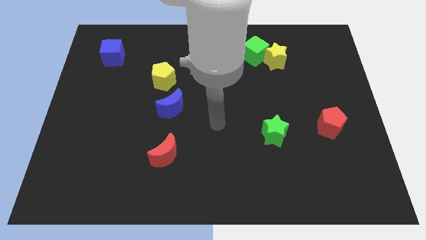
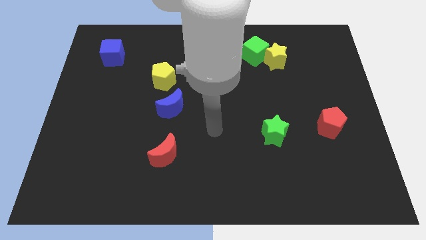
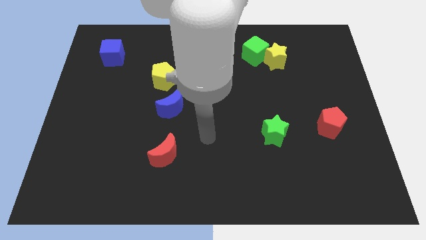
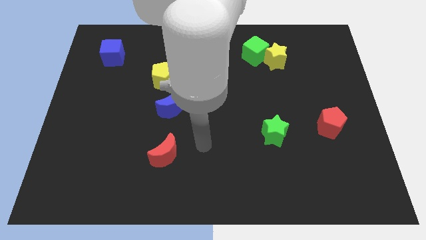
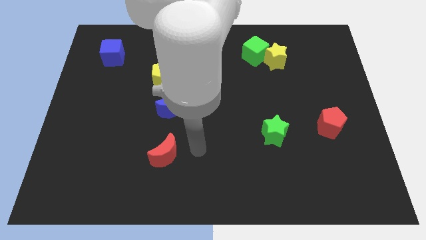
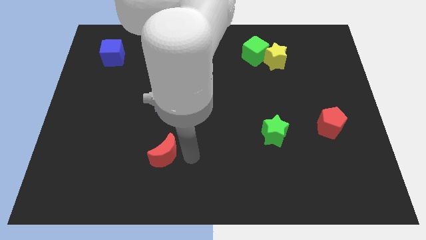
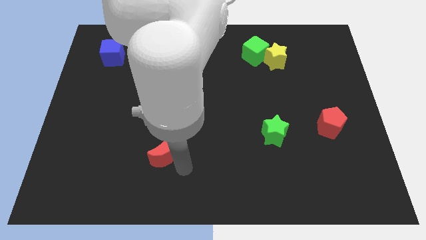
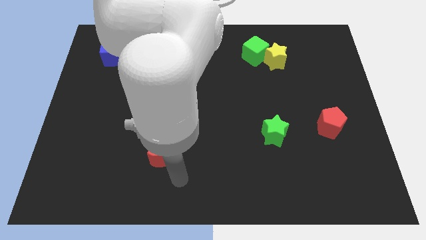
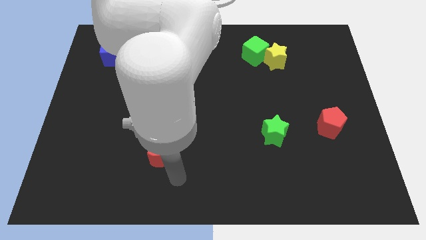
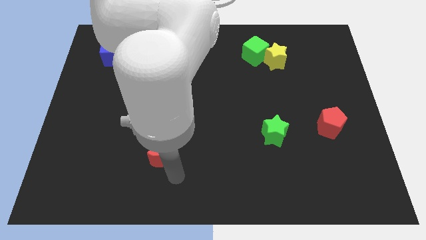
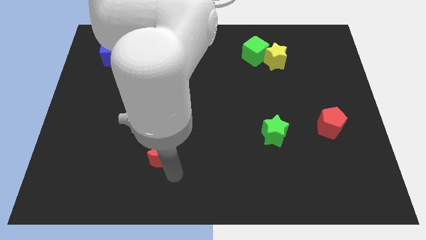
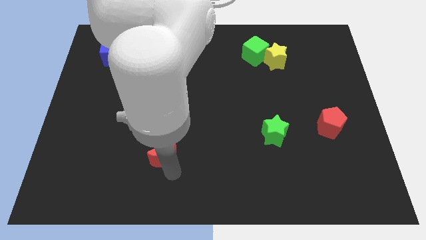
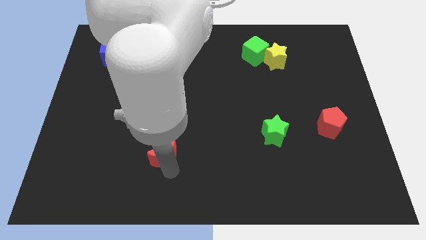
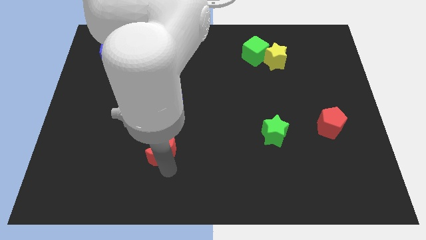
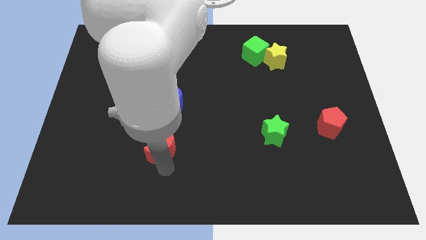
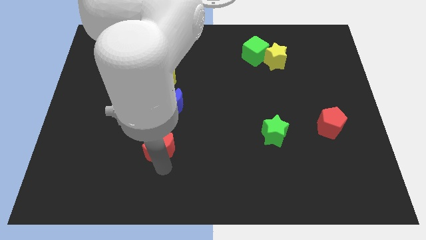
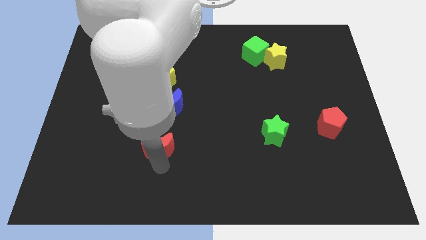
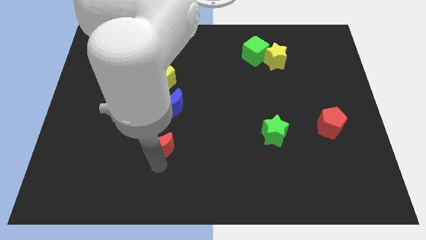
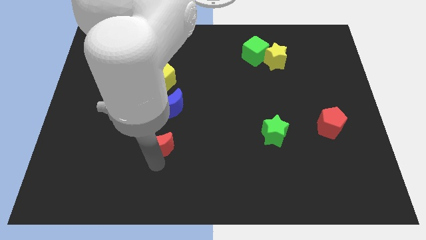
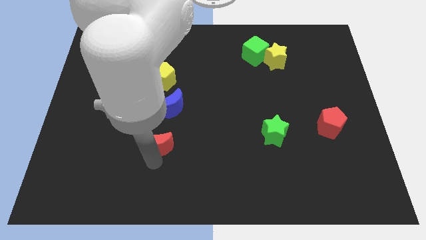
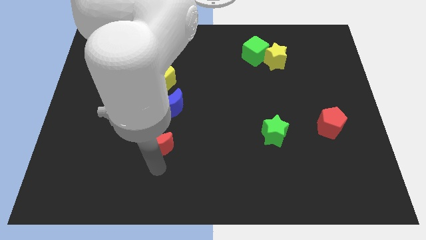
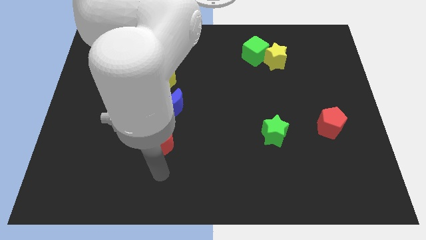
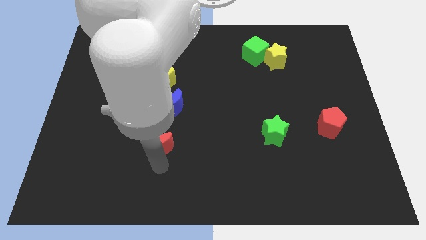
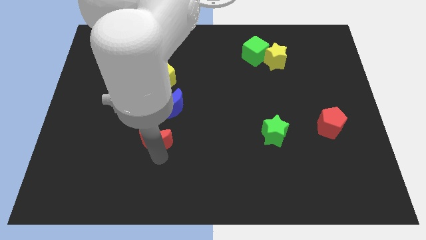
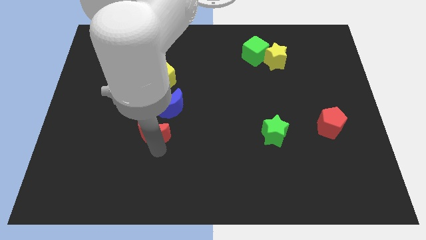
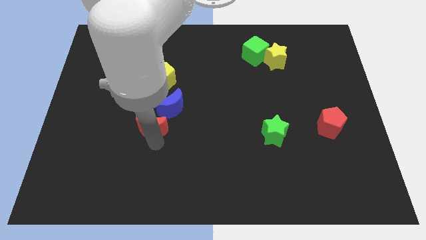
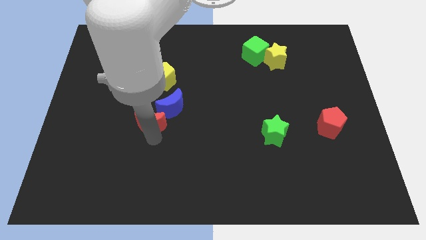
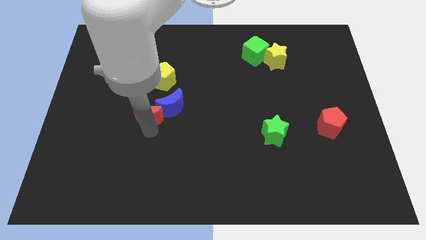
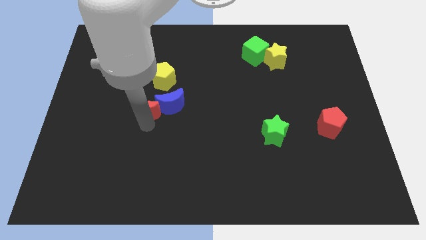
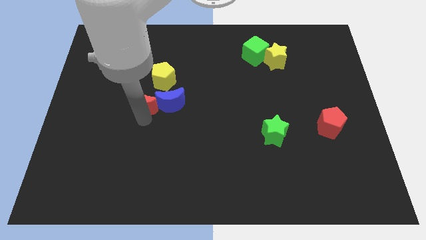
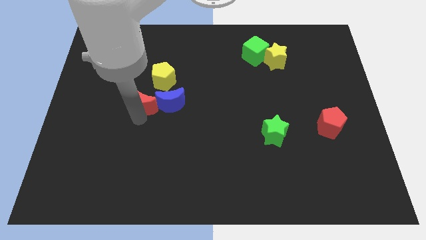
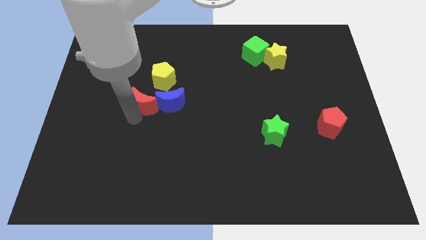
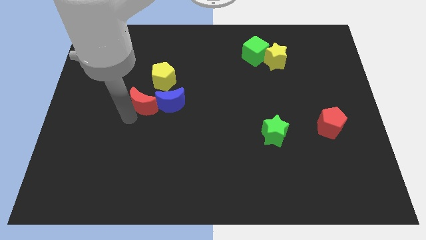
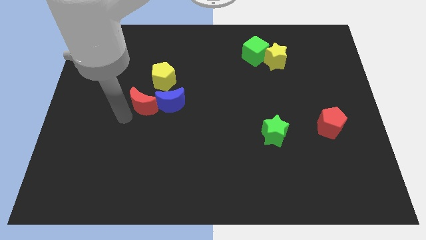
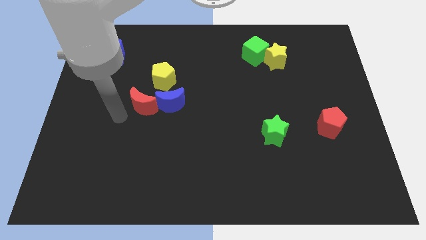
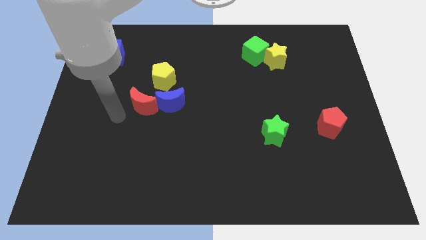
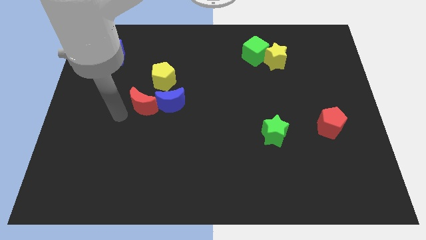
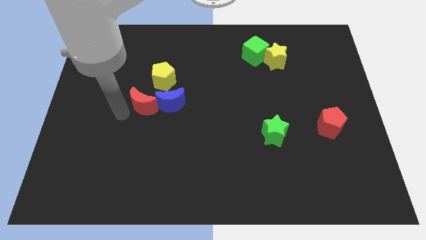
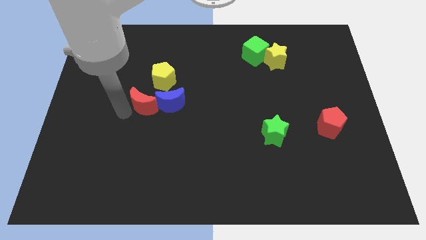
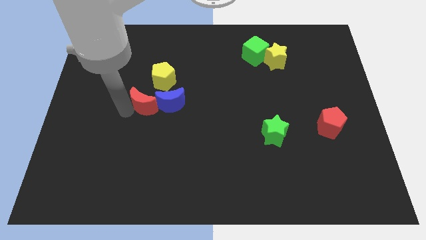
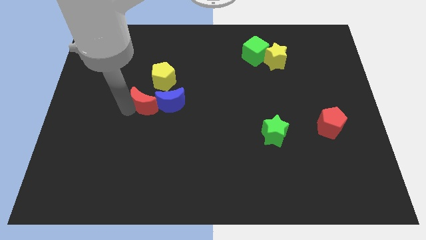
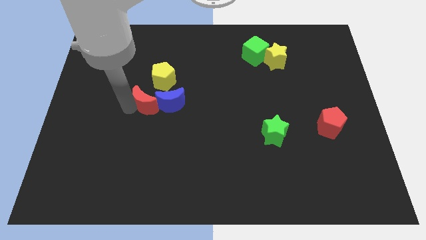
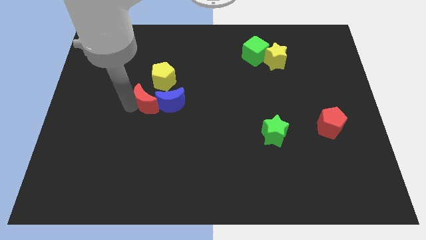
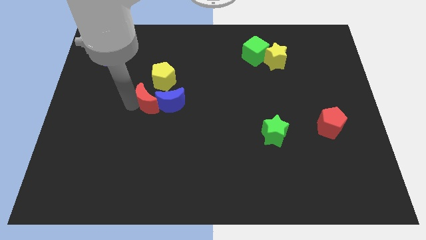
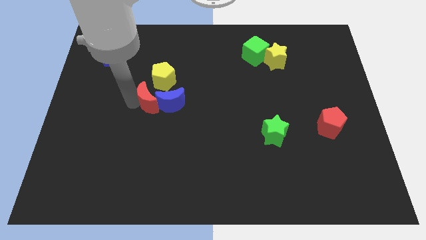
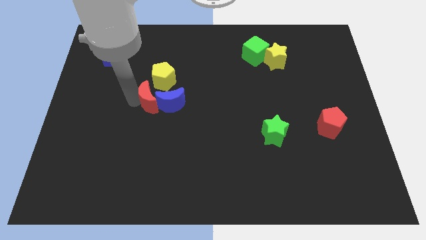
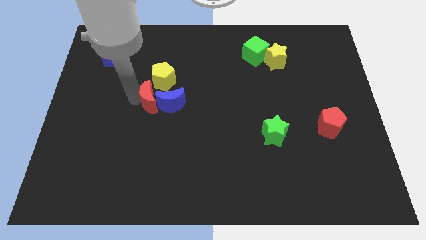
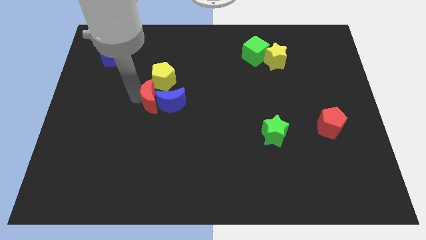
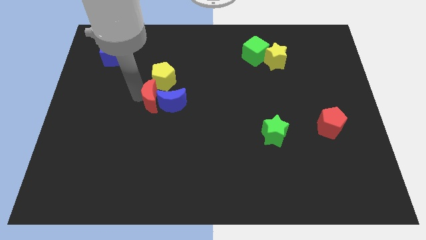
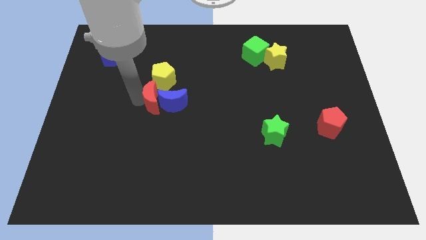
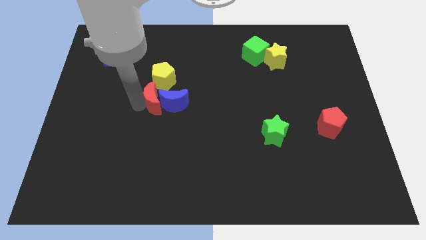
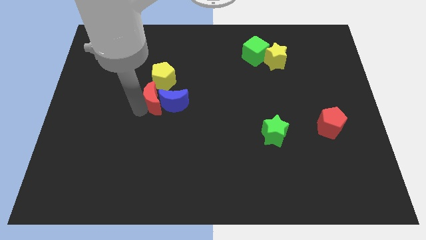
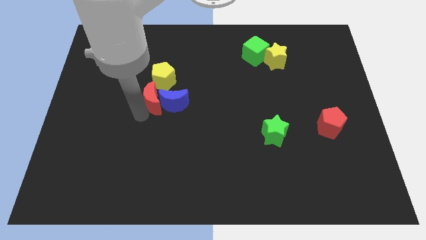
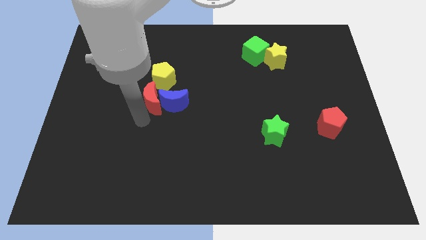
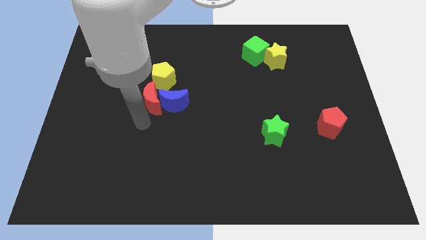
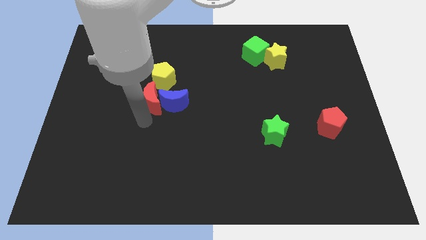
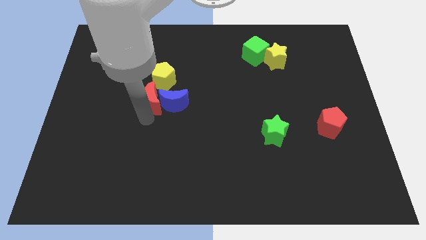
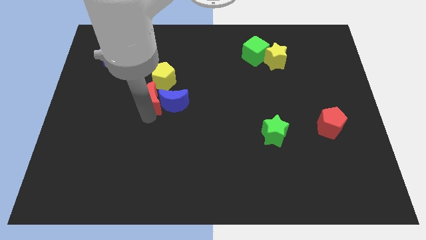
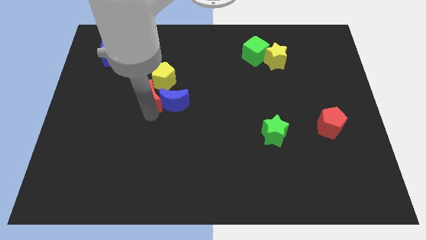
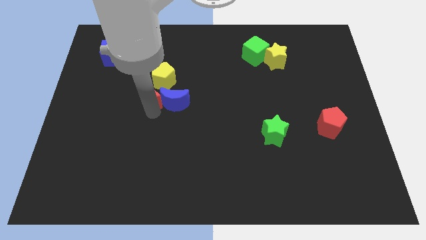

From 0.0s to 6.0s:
slide the red moon close to the yellow pentagon

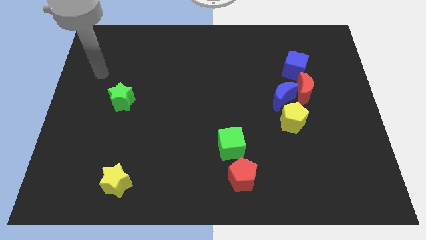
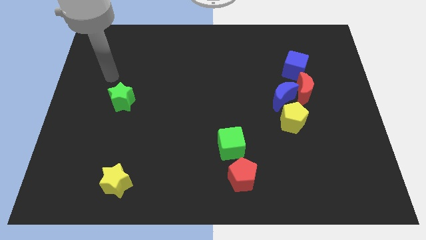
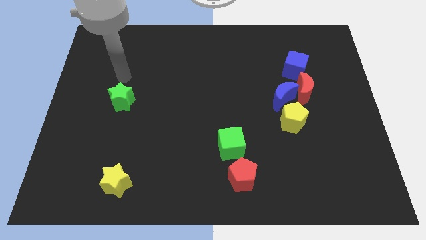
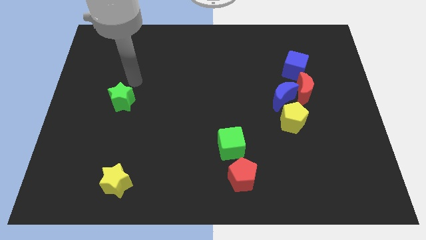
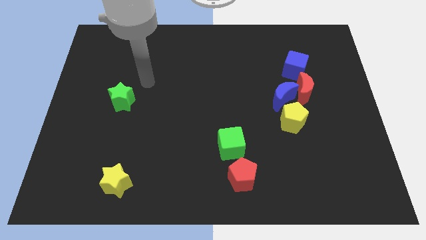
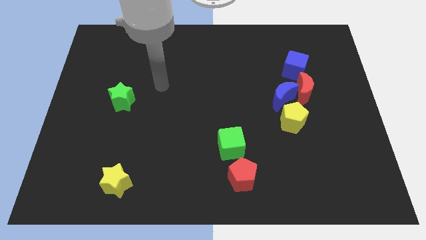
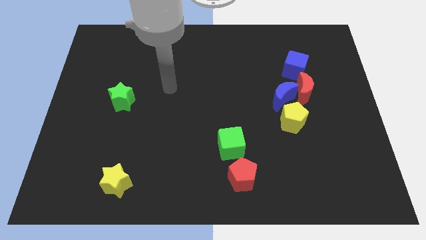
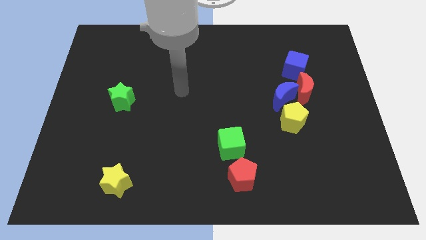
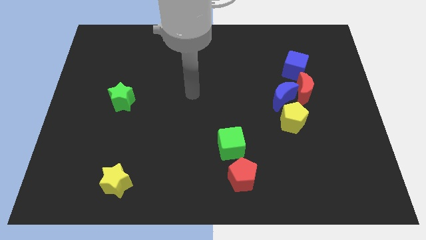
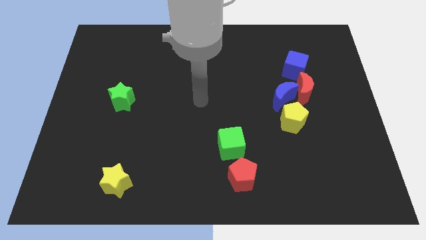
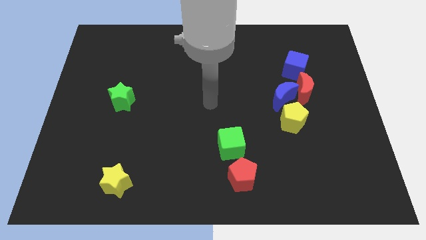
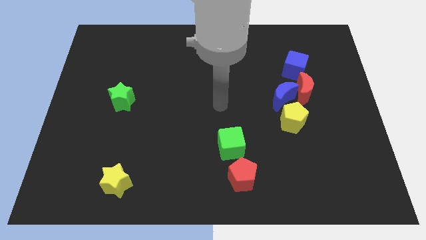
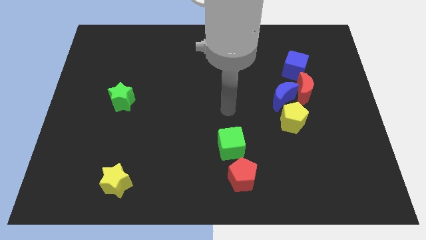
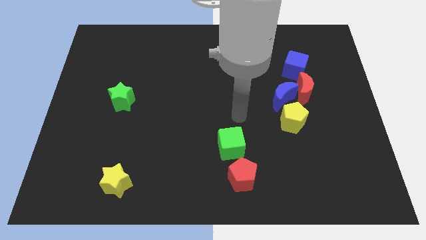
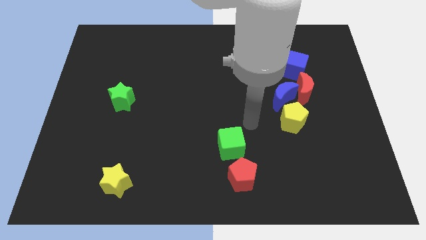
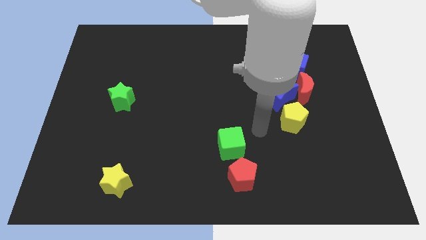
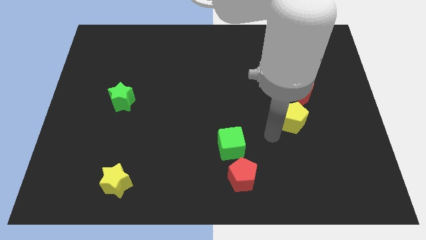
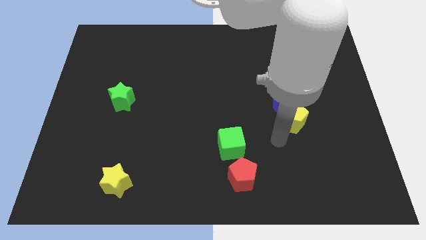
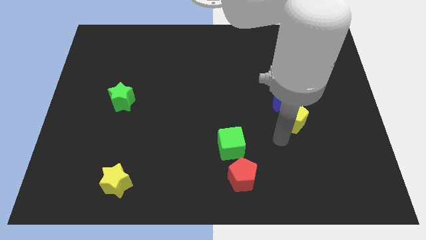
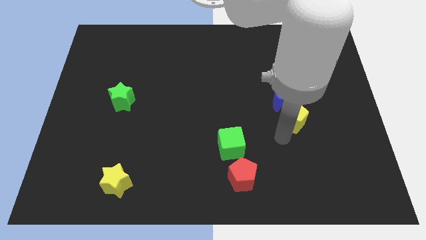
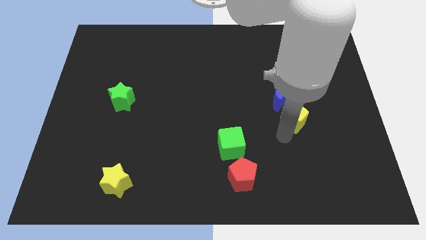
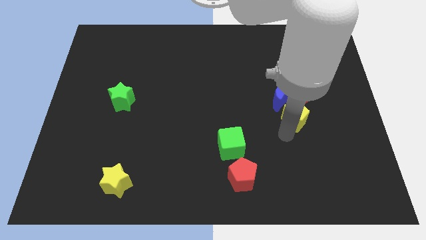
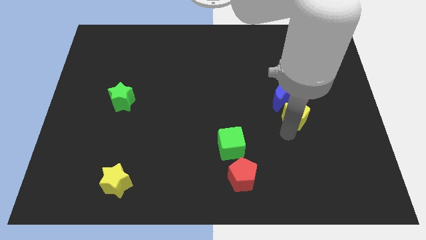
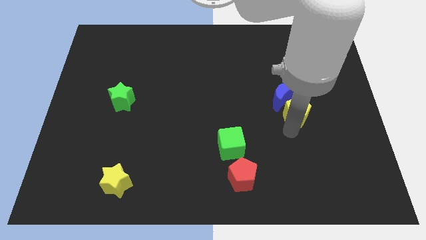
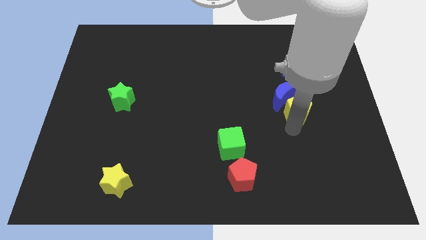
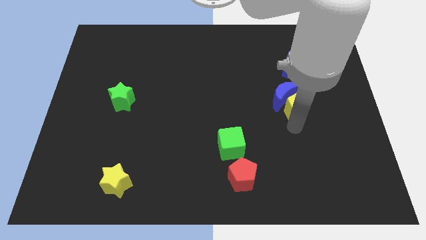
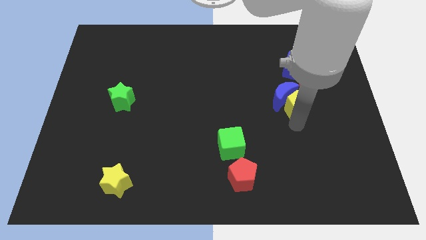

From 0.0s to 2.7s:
put the yellow pentagon next to the red moon
